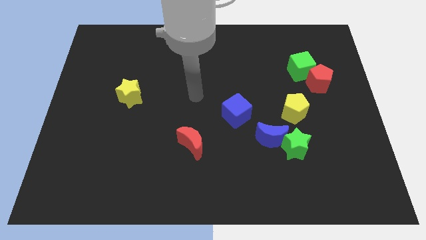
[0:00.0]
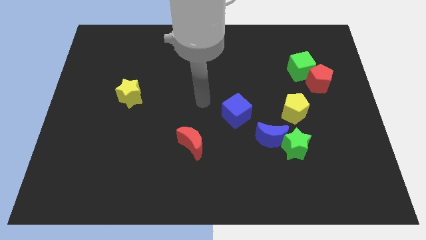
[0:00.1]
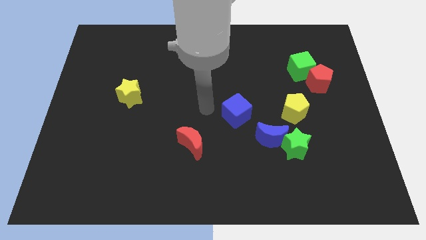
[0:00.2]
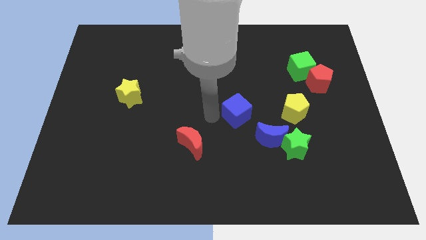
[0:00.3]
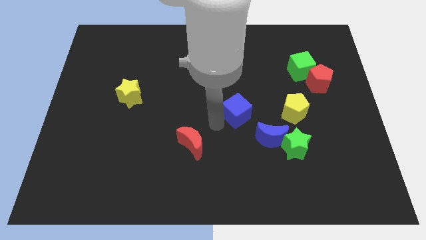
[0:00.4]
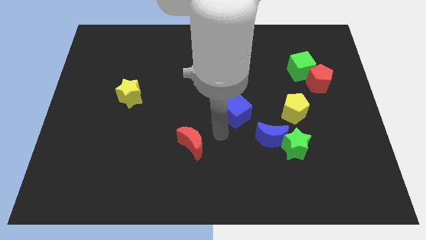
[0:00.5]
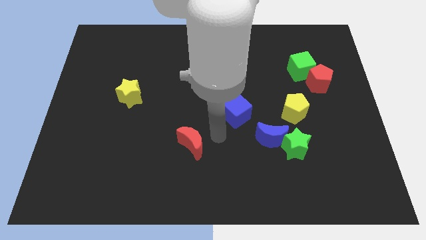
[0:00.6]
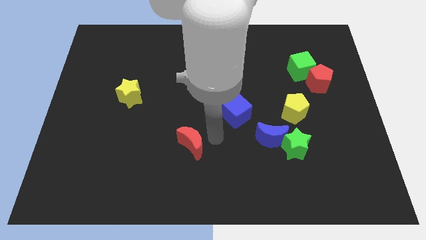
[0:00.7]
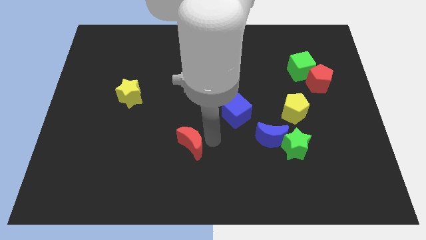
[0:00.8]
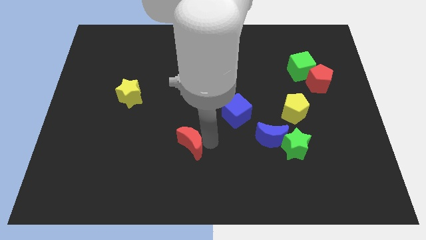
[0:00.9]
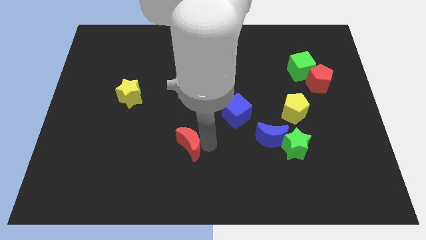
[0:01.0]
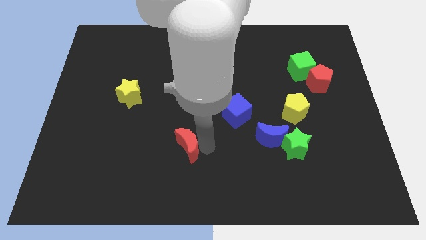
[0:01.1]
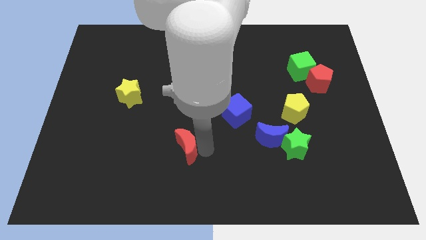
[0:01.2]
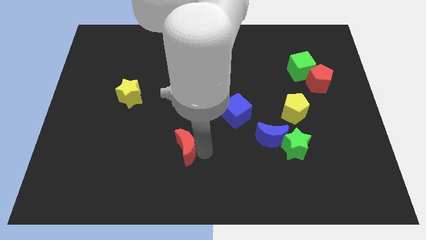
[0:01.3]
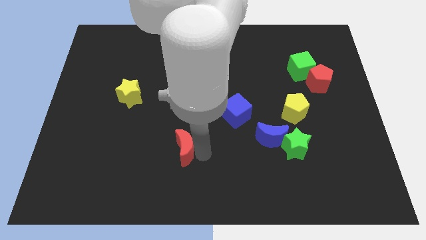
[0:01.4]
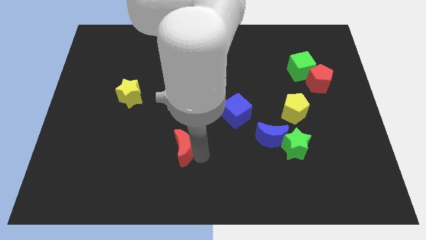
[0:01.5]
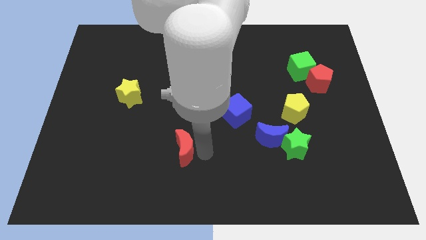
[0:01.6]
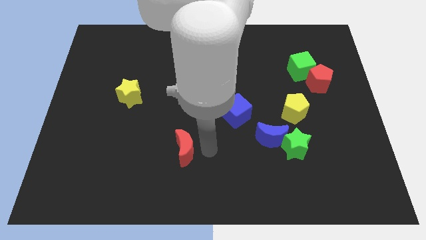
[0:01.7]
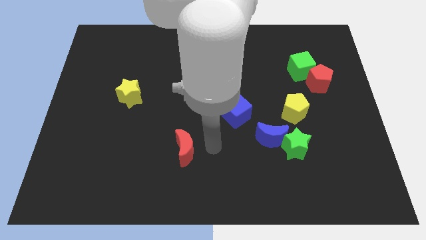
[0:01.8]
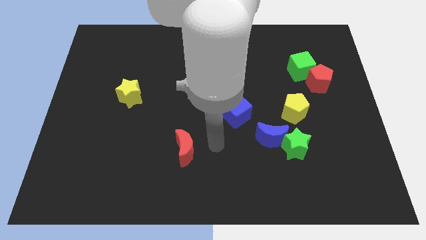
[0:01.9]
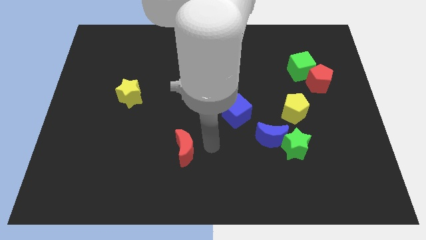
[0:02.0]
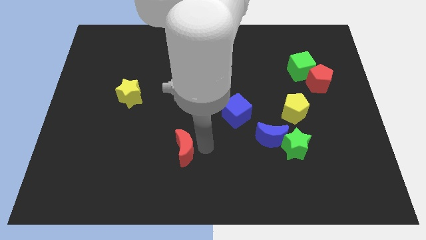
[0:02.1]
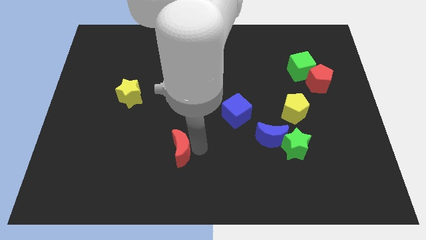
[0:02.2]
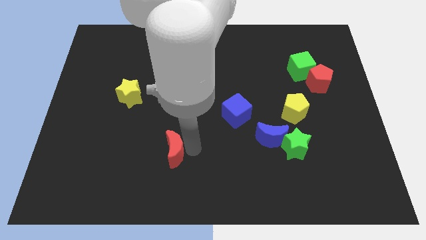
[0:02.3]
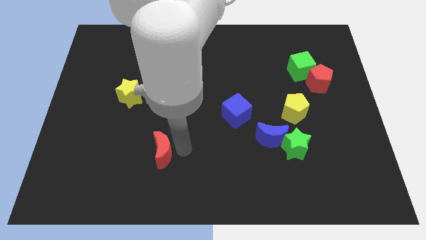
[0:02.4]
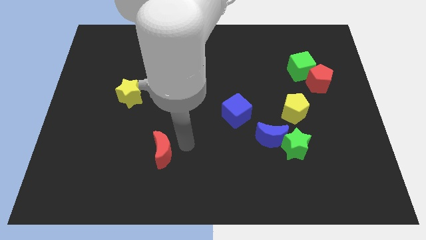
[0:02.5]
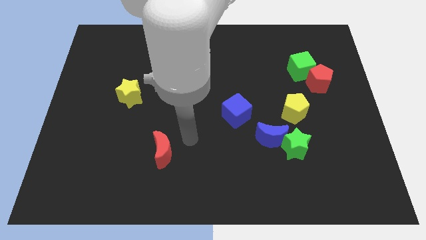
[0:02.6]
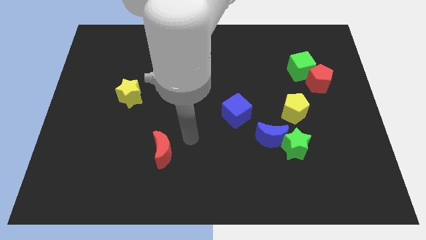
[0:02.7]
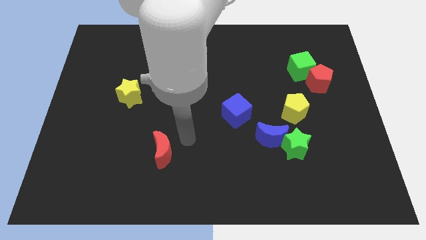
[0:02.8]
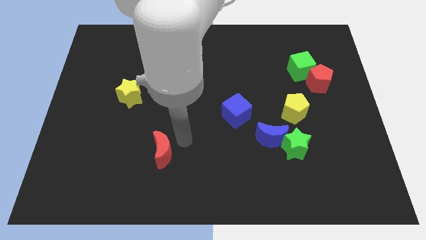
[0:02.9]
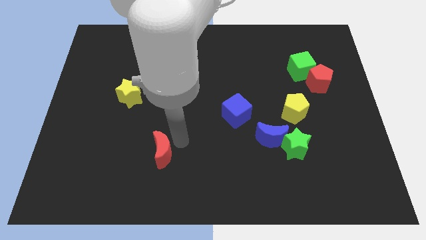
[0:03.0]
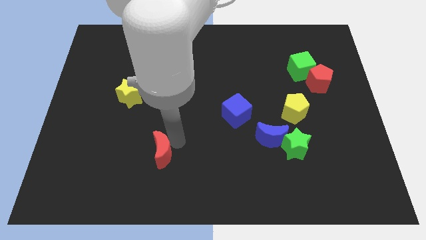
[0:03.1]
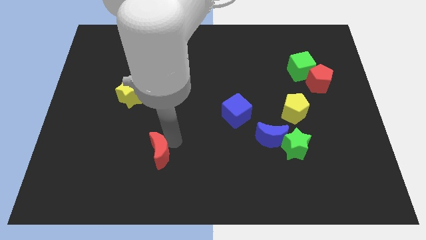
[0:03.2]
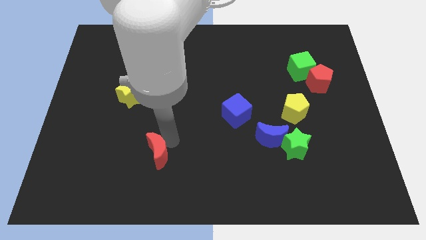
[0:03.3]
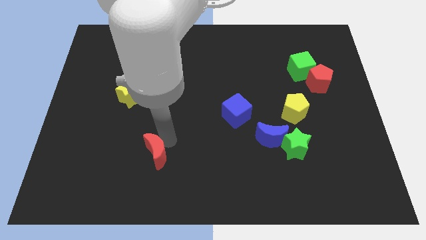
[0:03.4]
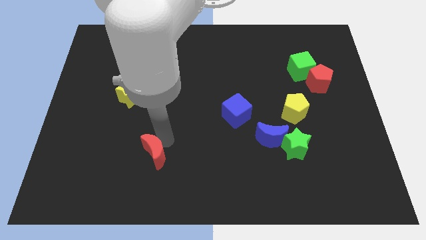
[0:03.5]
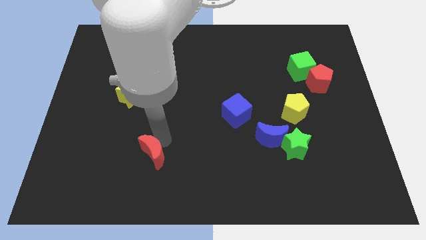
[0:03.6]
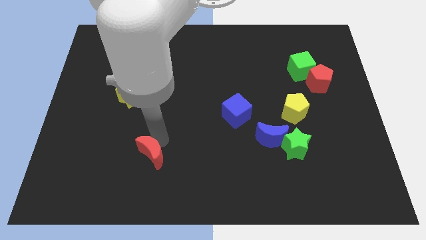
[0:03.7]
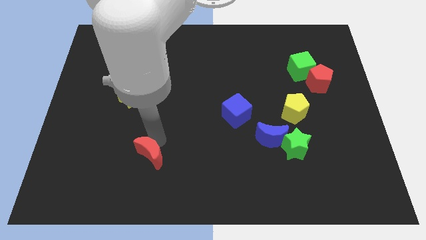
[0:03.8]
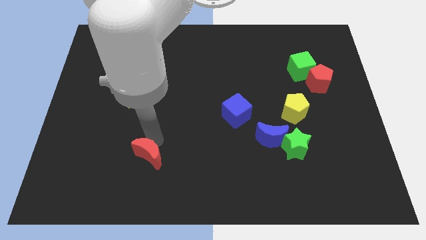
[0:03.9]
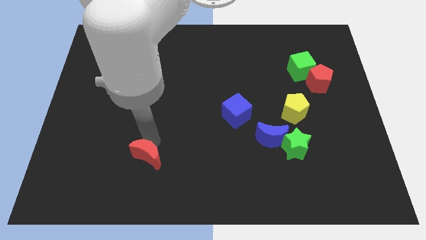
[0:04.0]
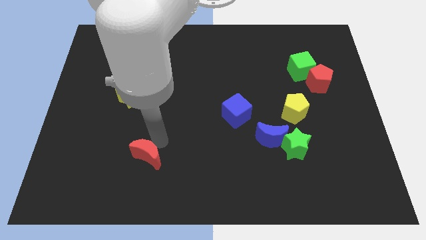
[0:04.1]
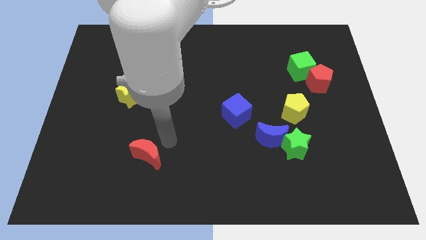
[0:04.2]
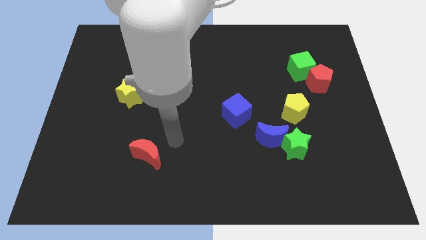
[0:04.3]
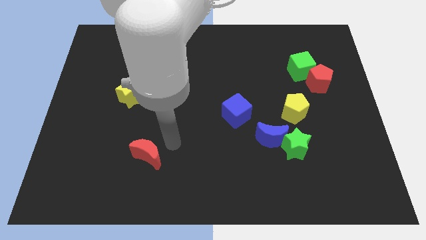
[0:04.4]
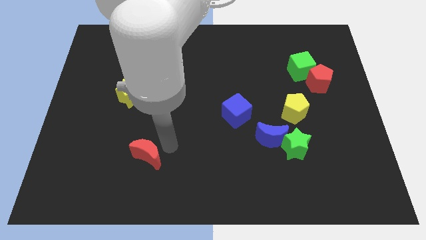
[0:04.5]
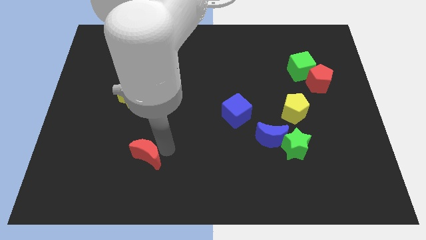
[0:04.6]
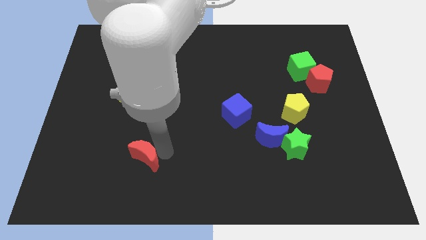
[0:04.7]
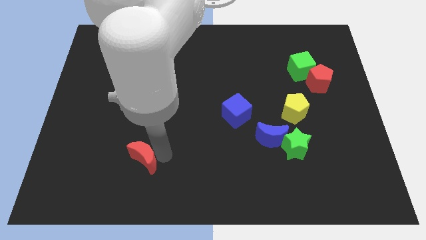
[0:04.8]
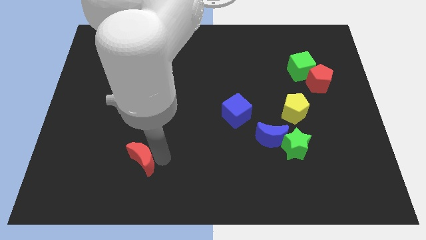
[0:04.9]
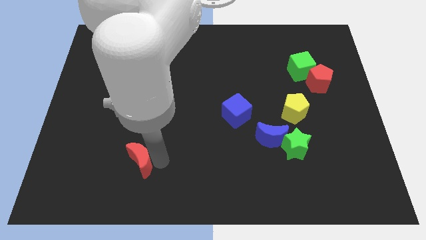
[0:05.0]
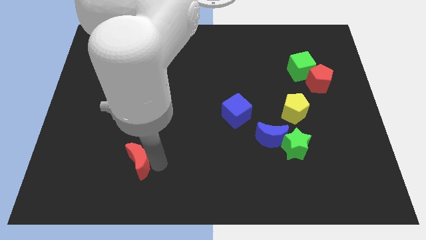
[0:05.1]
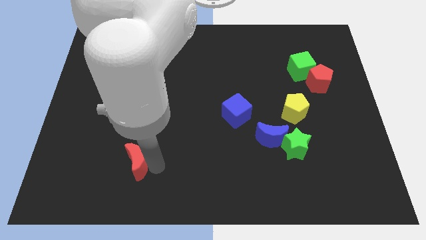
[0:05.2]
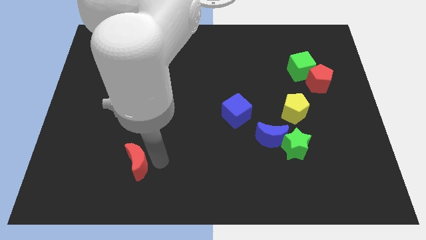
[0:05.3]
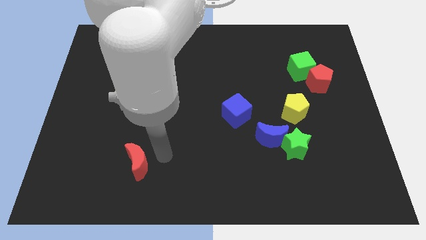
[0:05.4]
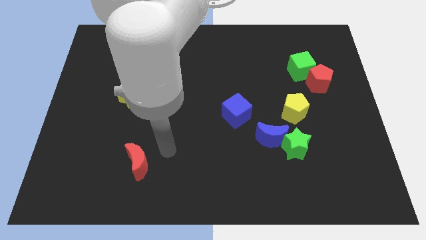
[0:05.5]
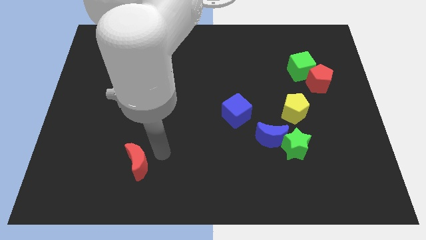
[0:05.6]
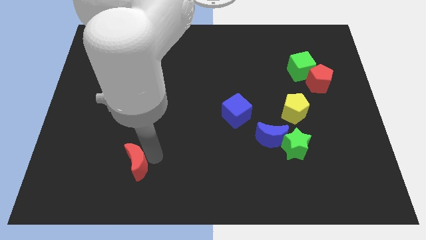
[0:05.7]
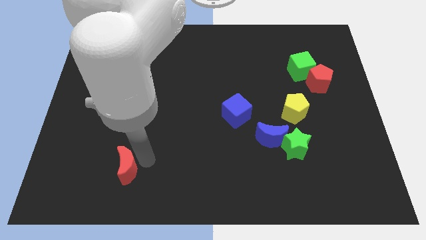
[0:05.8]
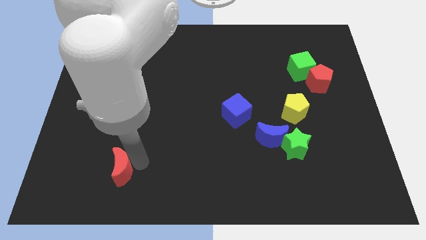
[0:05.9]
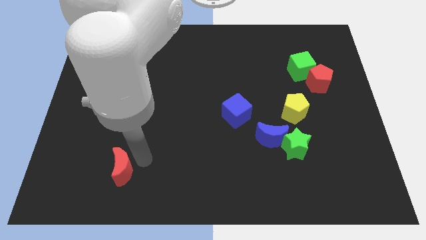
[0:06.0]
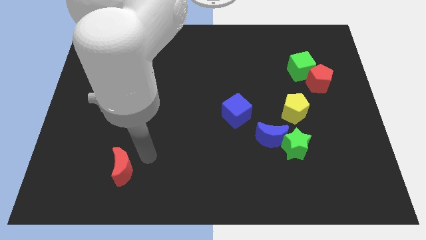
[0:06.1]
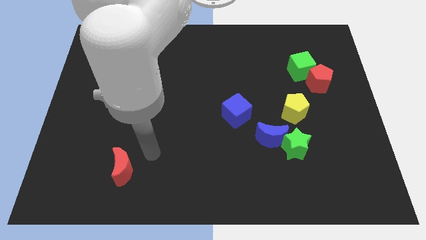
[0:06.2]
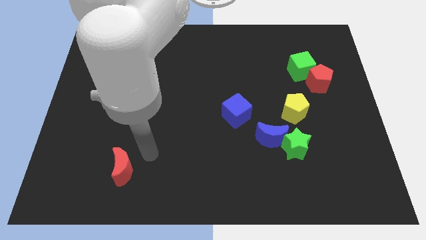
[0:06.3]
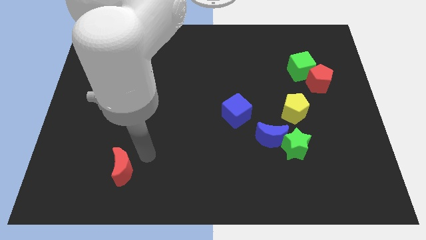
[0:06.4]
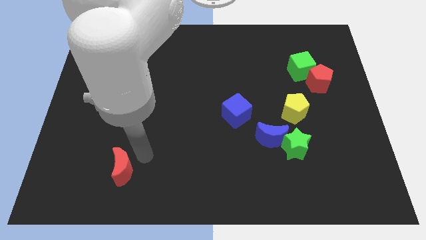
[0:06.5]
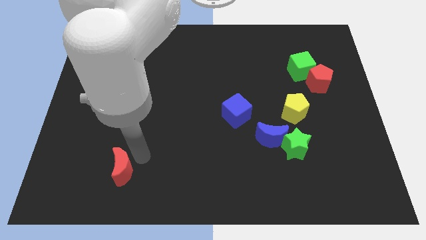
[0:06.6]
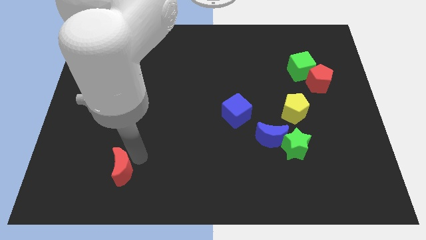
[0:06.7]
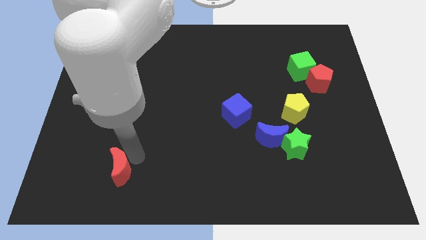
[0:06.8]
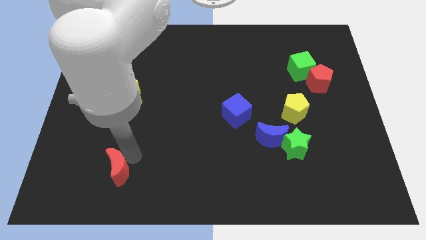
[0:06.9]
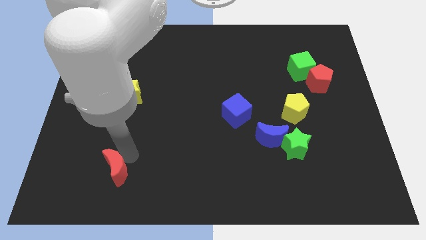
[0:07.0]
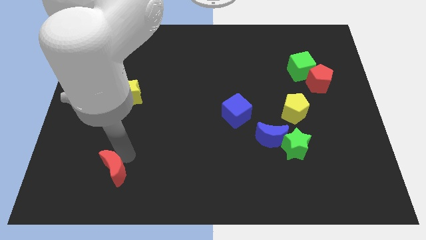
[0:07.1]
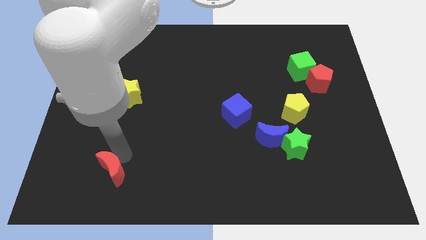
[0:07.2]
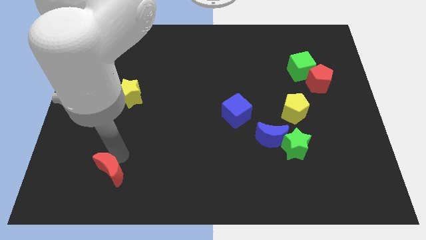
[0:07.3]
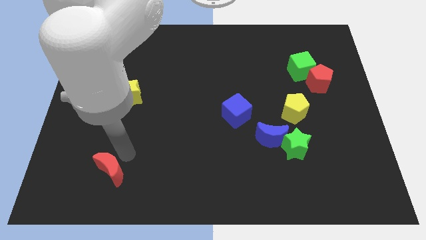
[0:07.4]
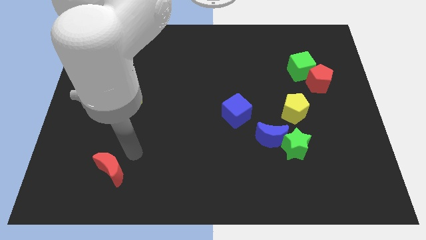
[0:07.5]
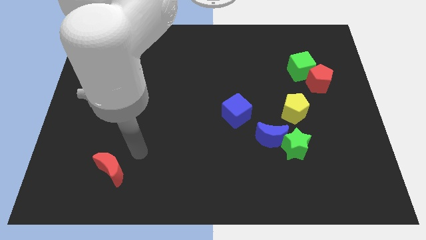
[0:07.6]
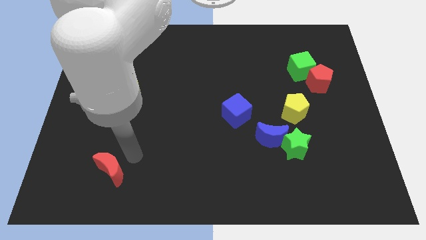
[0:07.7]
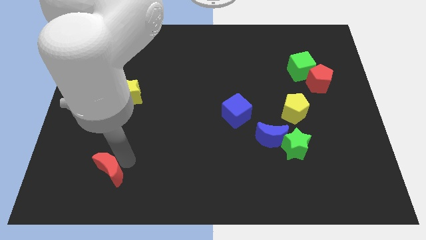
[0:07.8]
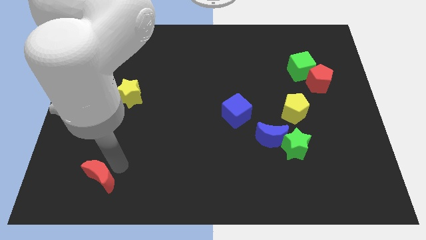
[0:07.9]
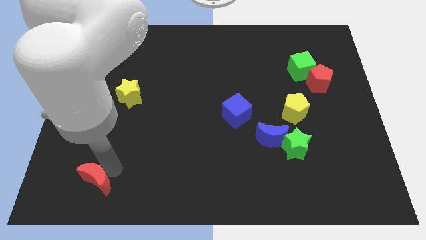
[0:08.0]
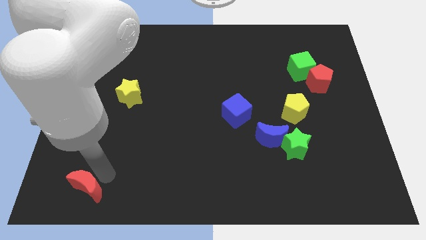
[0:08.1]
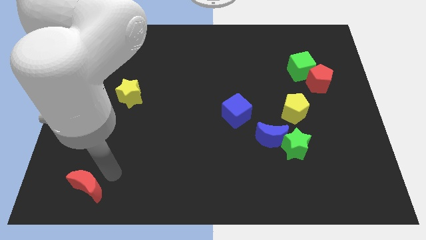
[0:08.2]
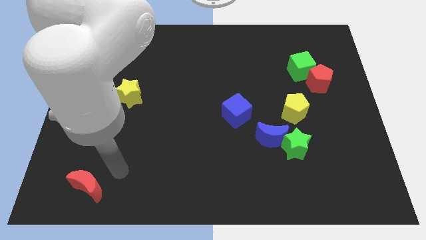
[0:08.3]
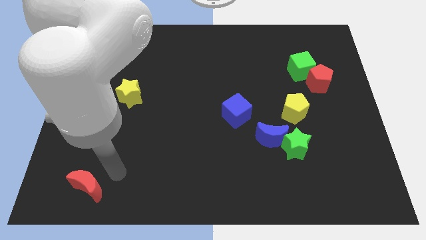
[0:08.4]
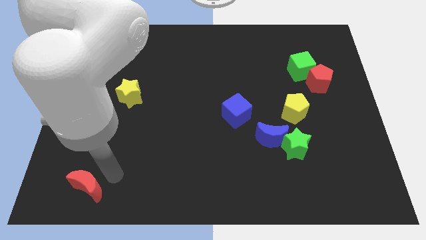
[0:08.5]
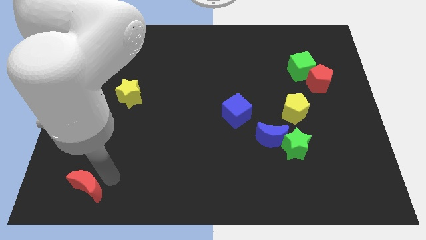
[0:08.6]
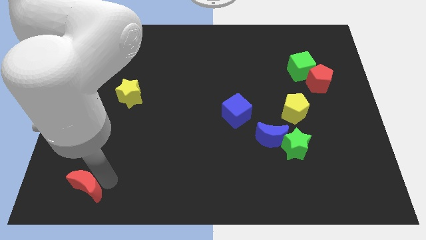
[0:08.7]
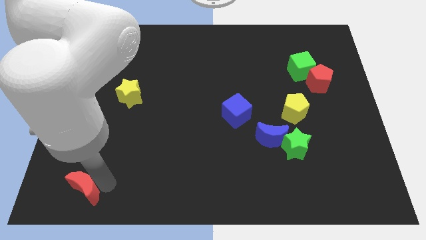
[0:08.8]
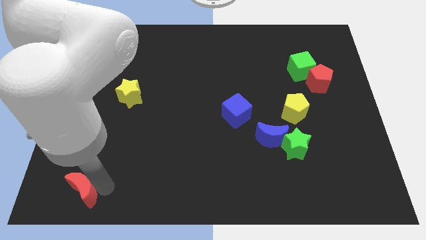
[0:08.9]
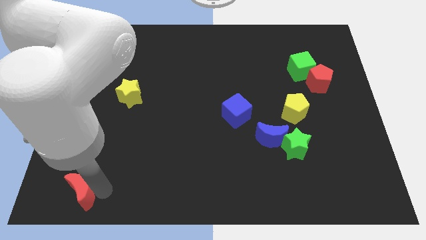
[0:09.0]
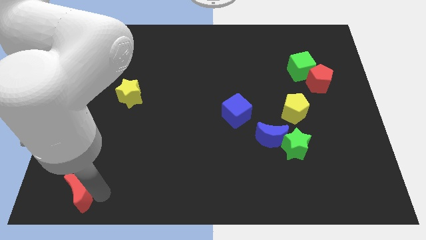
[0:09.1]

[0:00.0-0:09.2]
push the red moon to the lower left corner
